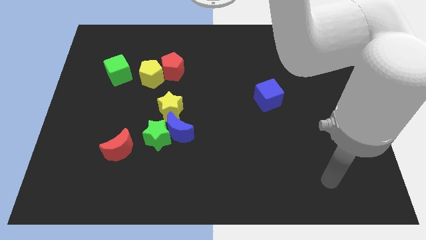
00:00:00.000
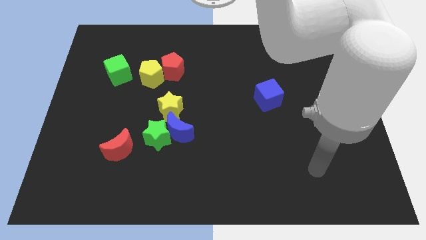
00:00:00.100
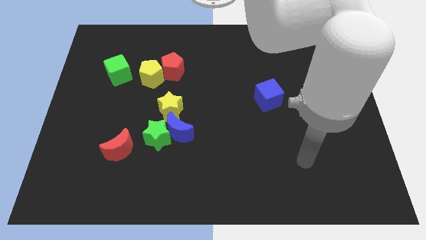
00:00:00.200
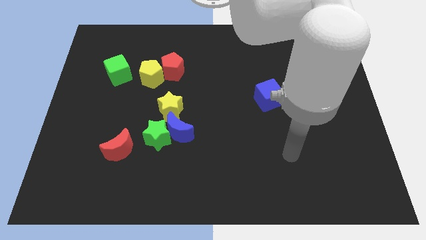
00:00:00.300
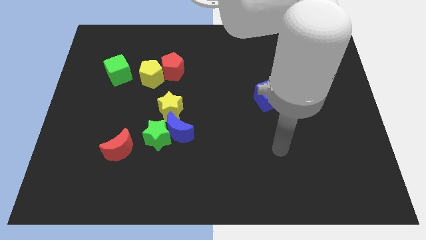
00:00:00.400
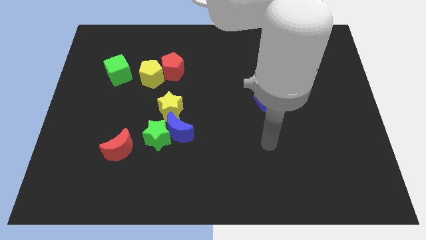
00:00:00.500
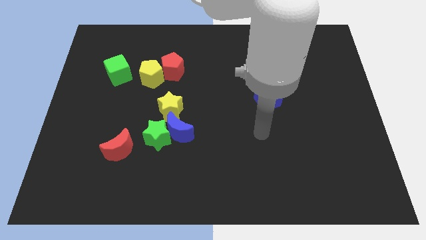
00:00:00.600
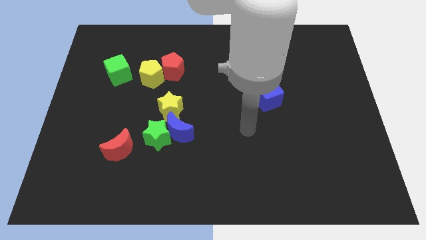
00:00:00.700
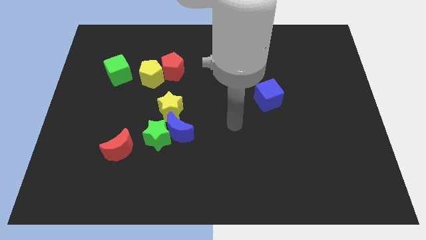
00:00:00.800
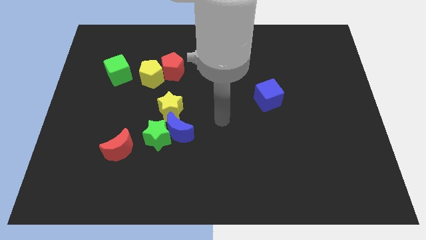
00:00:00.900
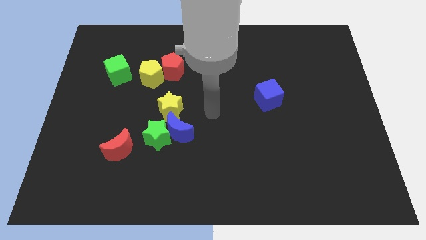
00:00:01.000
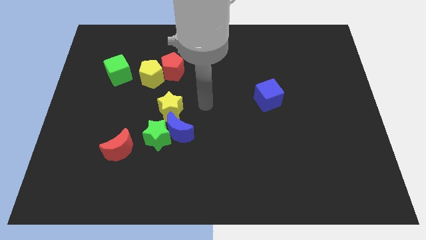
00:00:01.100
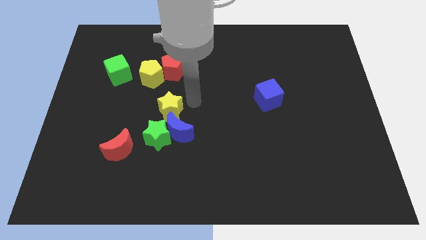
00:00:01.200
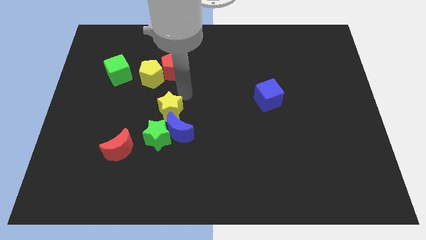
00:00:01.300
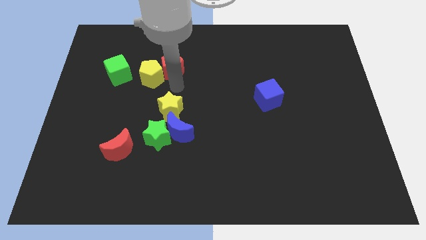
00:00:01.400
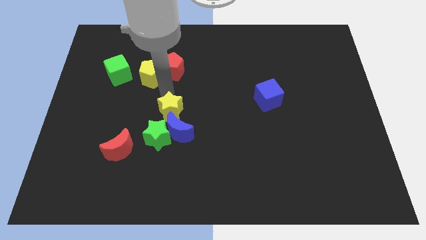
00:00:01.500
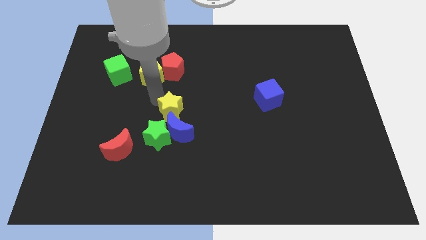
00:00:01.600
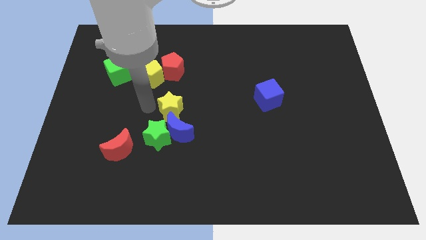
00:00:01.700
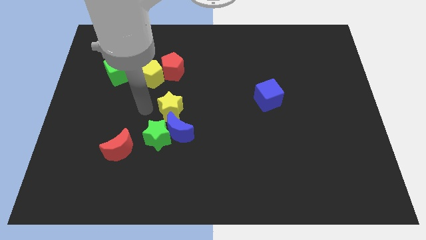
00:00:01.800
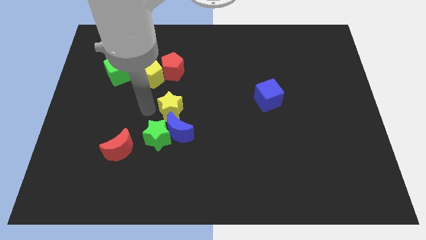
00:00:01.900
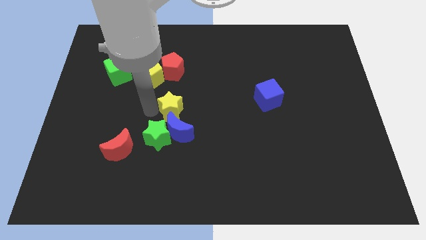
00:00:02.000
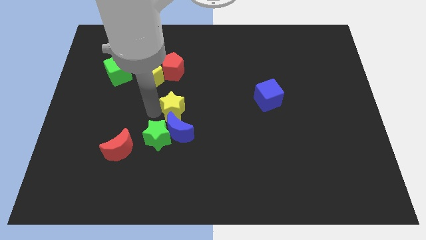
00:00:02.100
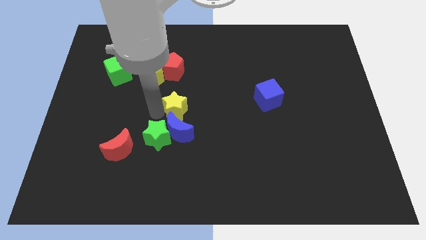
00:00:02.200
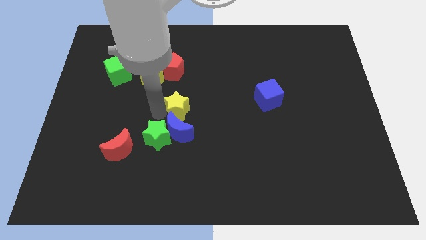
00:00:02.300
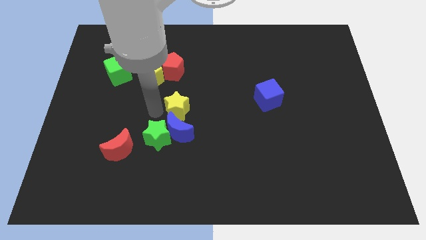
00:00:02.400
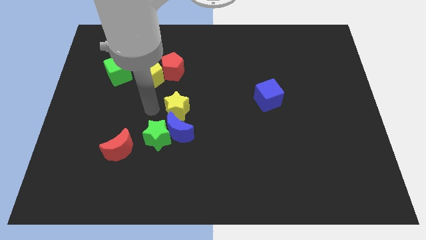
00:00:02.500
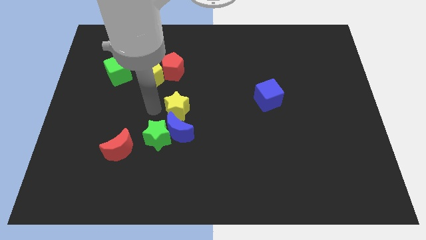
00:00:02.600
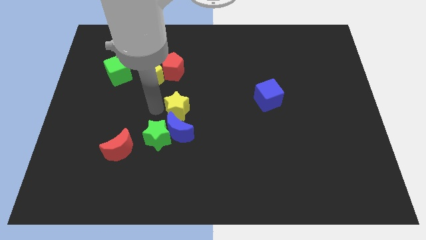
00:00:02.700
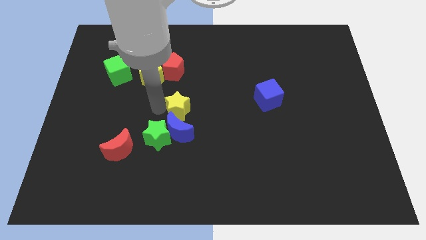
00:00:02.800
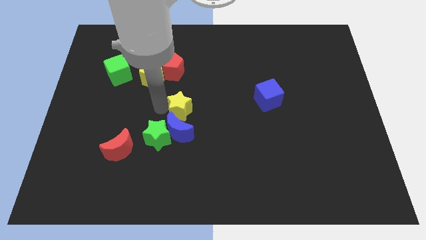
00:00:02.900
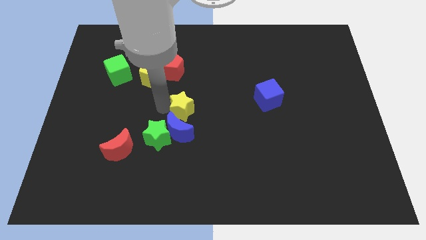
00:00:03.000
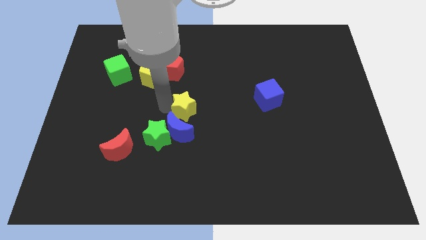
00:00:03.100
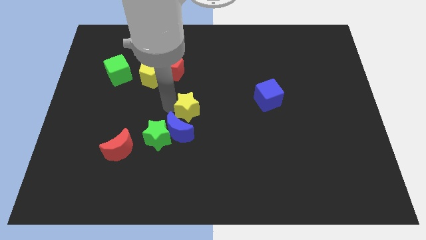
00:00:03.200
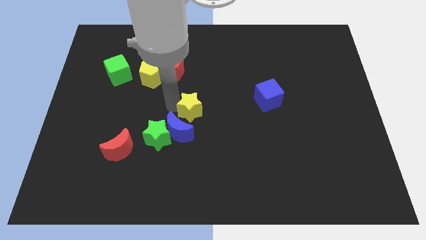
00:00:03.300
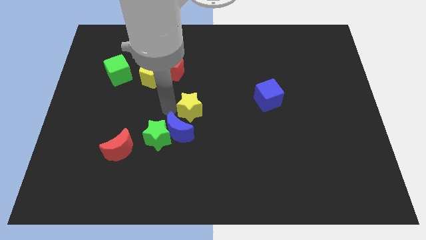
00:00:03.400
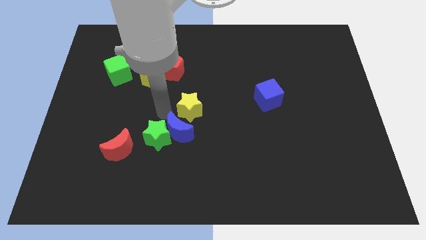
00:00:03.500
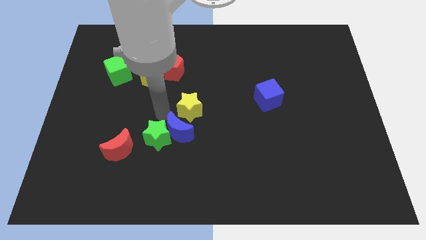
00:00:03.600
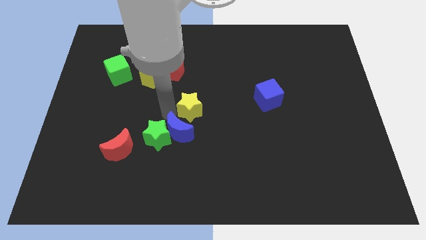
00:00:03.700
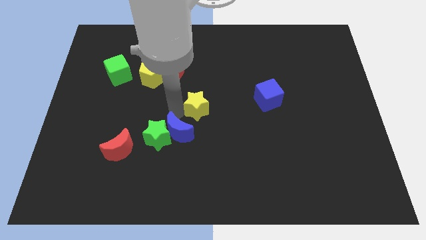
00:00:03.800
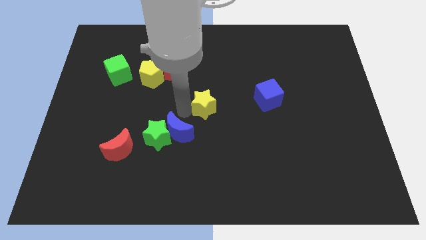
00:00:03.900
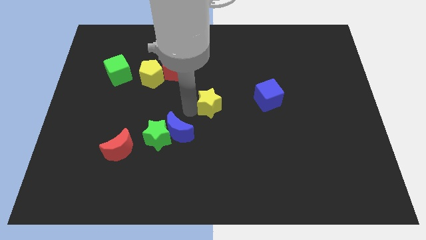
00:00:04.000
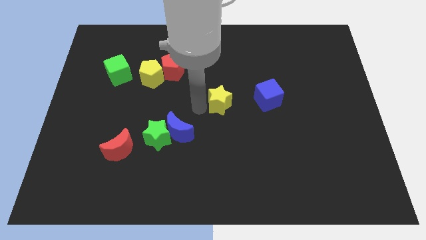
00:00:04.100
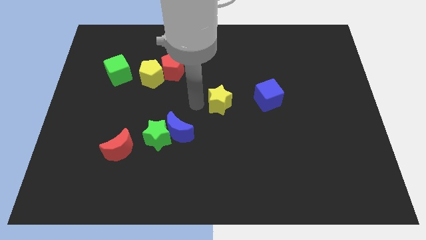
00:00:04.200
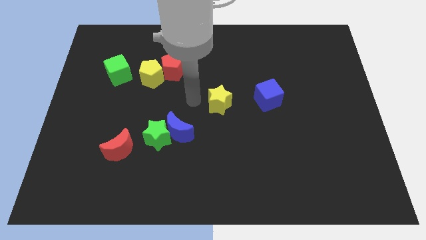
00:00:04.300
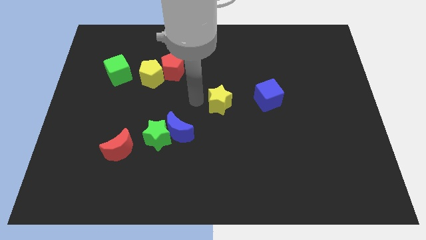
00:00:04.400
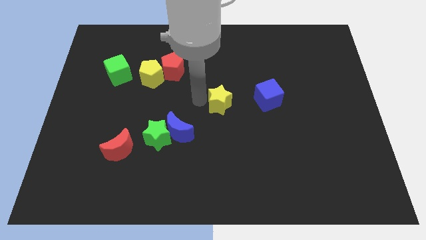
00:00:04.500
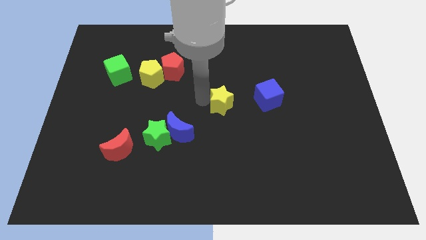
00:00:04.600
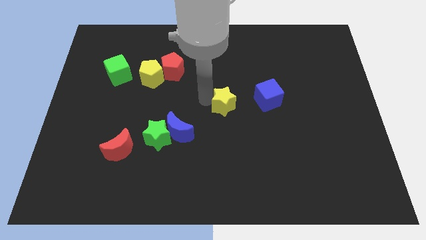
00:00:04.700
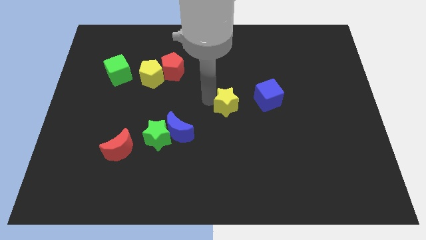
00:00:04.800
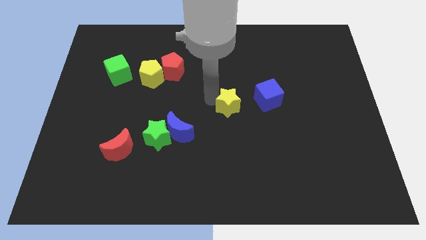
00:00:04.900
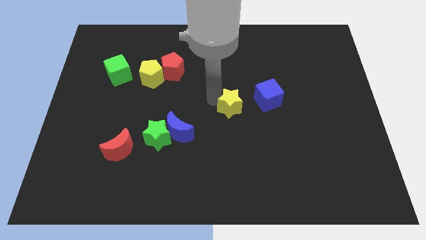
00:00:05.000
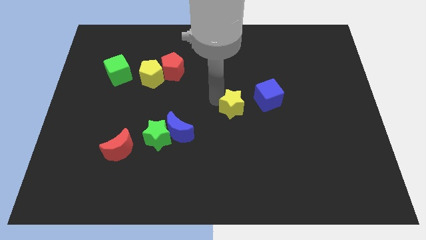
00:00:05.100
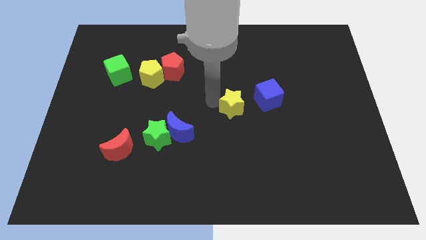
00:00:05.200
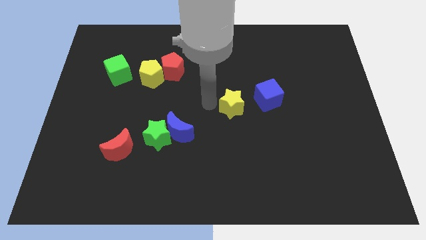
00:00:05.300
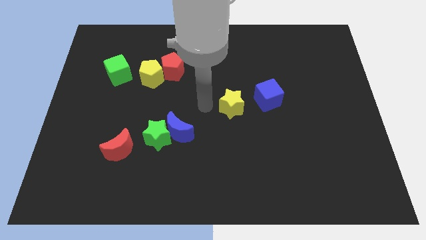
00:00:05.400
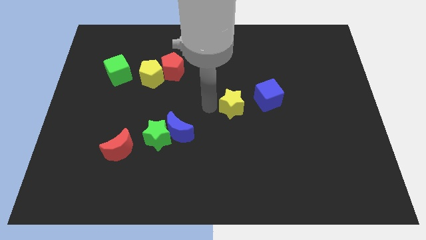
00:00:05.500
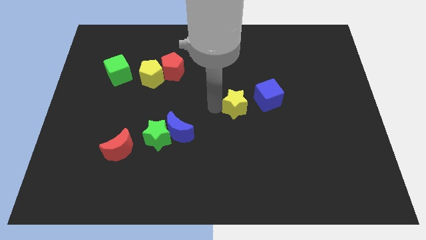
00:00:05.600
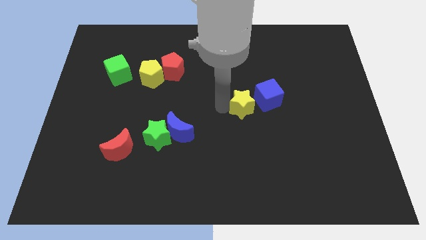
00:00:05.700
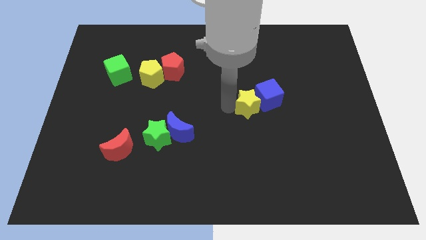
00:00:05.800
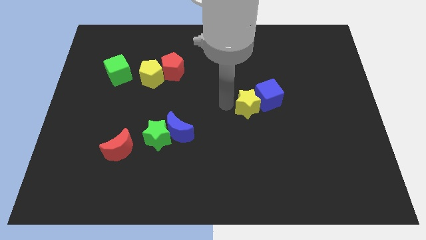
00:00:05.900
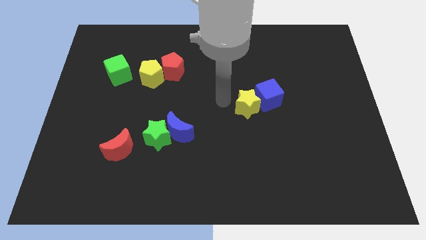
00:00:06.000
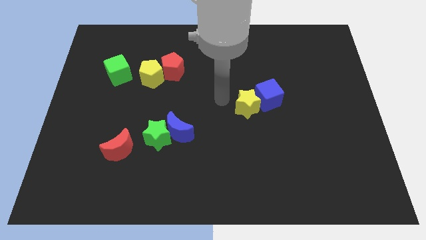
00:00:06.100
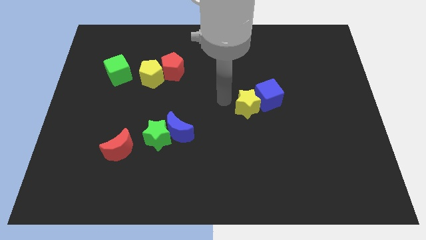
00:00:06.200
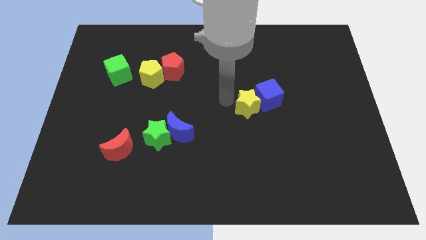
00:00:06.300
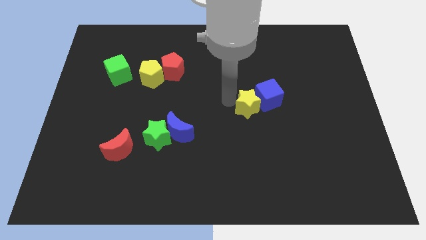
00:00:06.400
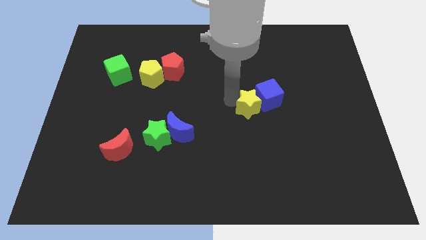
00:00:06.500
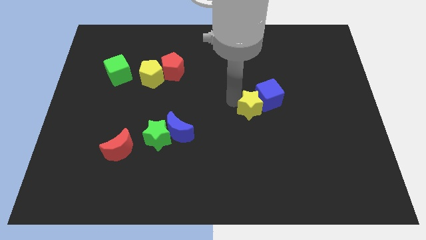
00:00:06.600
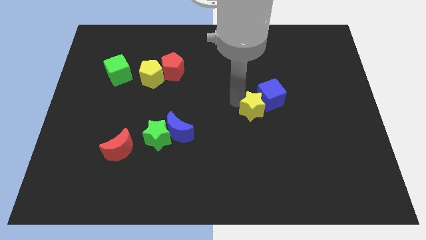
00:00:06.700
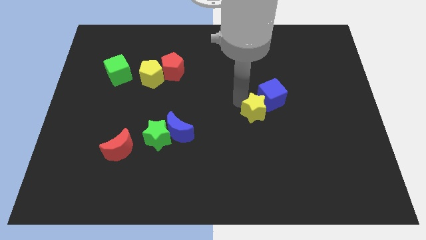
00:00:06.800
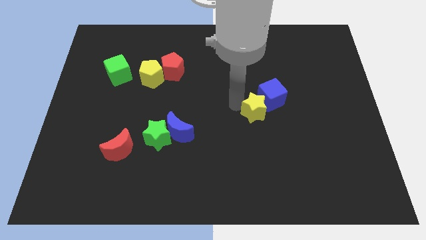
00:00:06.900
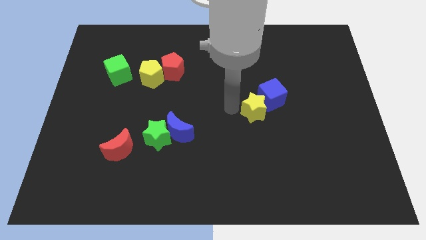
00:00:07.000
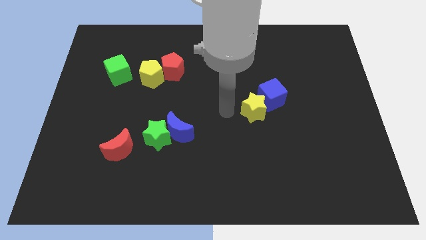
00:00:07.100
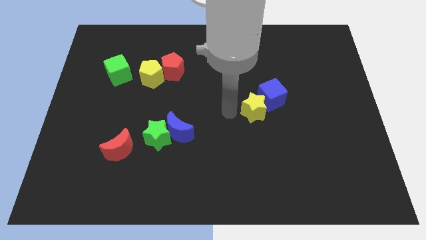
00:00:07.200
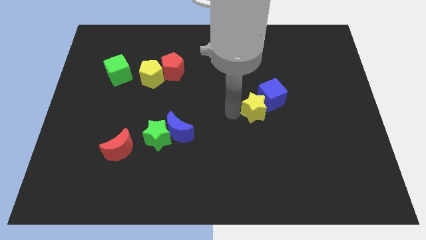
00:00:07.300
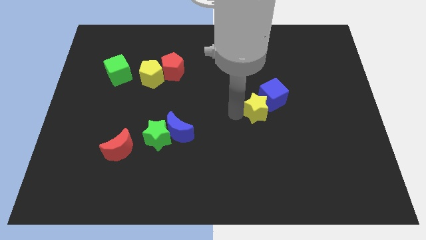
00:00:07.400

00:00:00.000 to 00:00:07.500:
move the yellow star right
